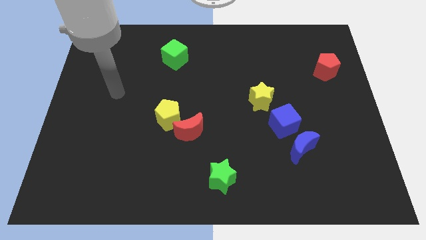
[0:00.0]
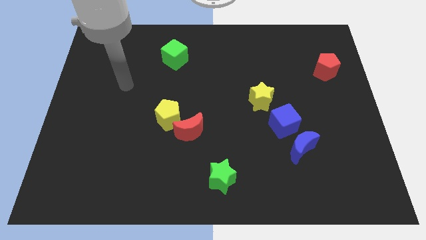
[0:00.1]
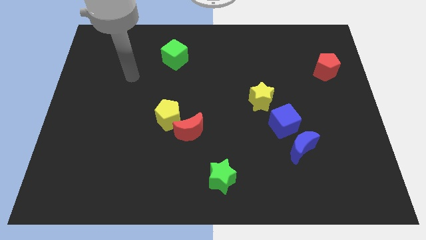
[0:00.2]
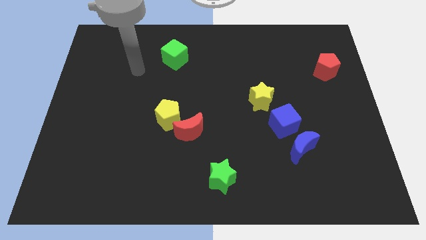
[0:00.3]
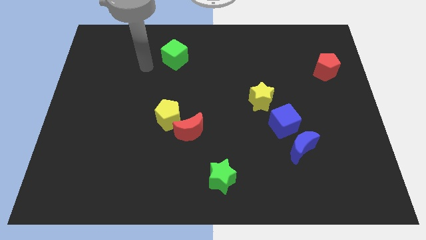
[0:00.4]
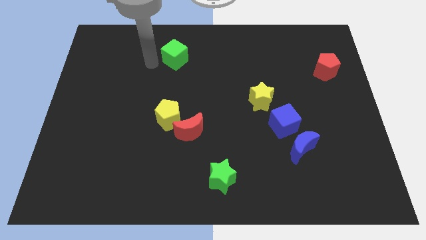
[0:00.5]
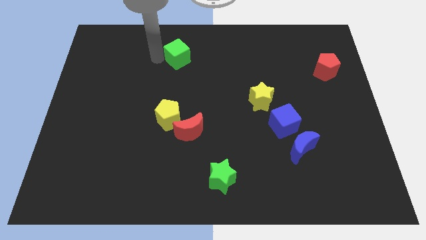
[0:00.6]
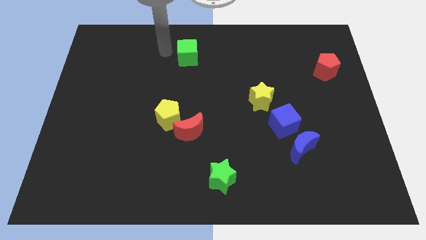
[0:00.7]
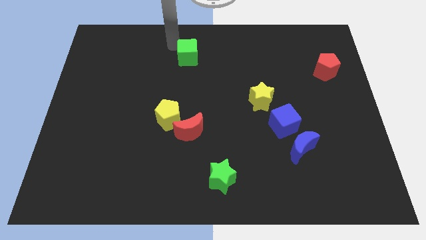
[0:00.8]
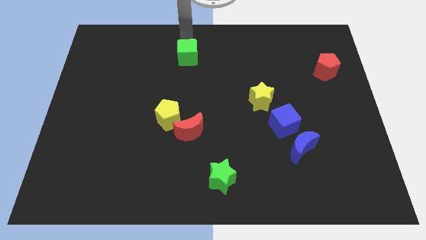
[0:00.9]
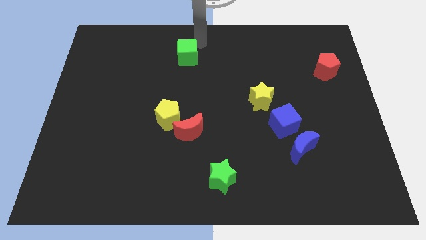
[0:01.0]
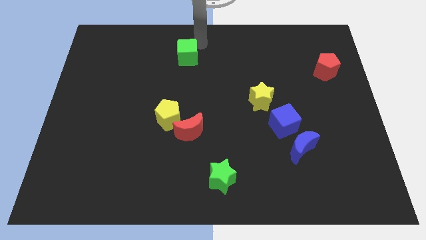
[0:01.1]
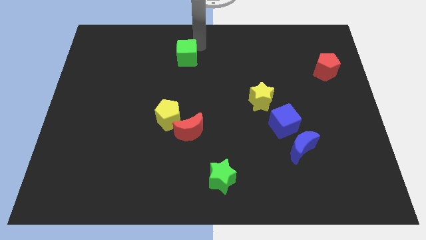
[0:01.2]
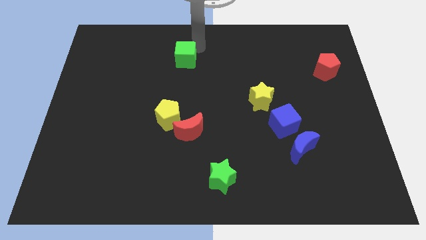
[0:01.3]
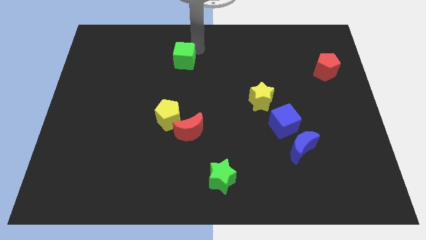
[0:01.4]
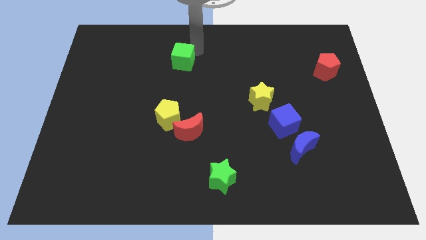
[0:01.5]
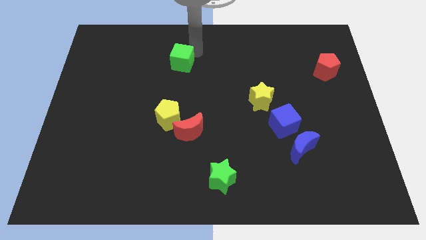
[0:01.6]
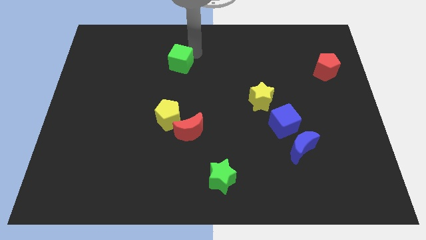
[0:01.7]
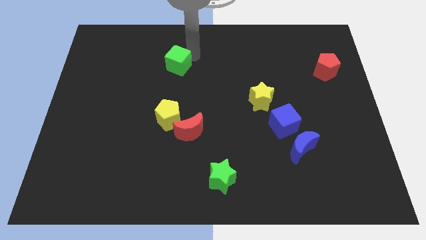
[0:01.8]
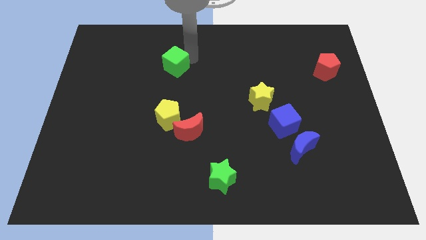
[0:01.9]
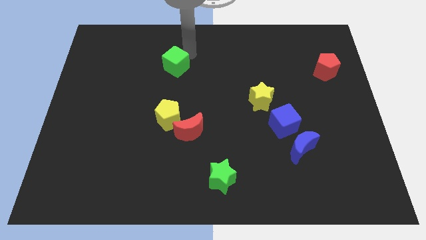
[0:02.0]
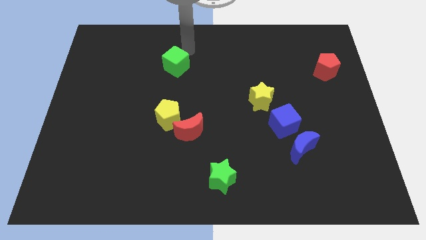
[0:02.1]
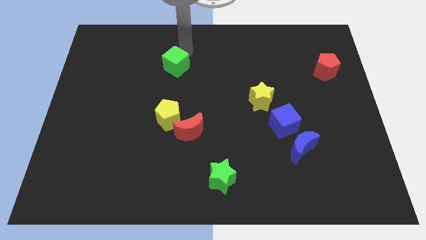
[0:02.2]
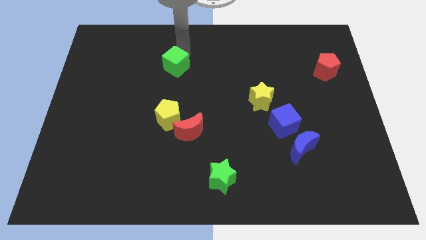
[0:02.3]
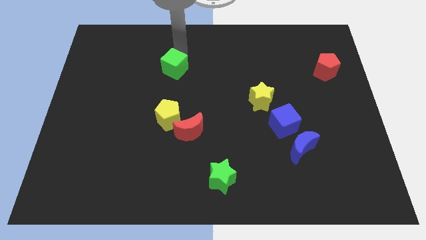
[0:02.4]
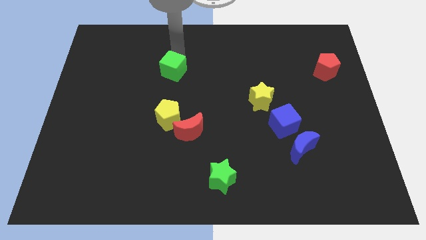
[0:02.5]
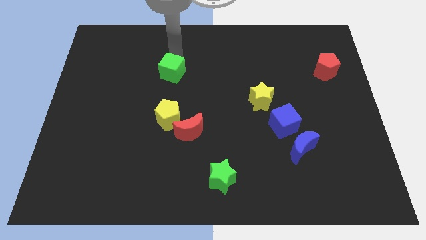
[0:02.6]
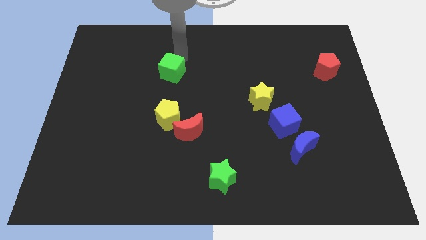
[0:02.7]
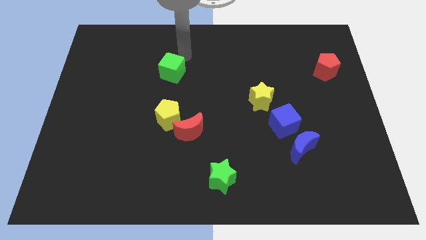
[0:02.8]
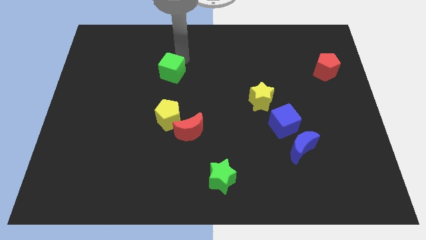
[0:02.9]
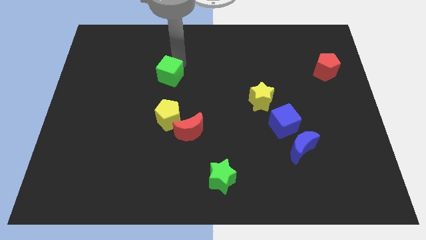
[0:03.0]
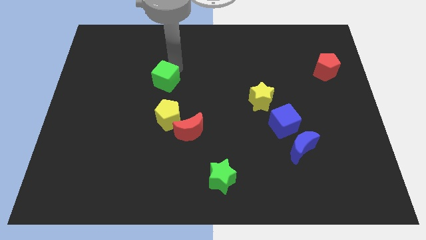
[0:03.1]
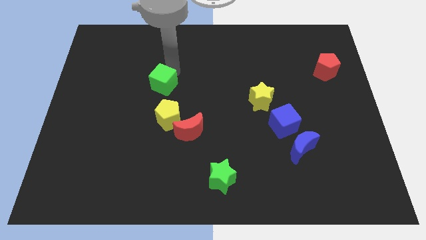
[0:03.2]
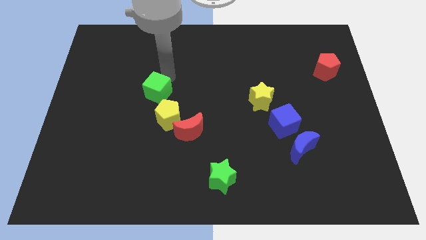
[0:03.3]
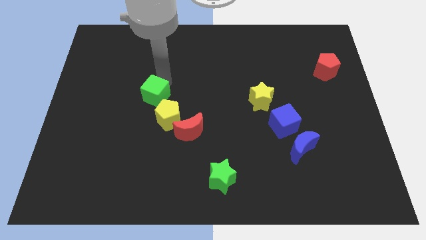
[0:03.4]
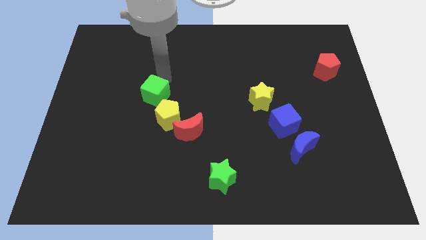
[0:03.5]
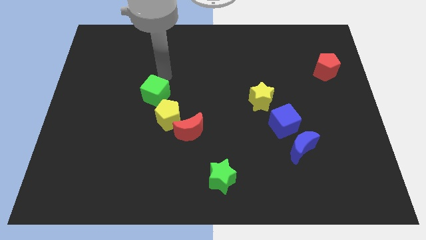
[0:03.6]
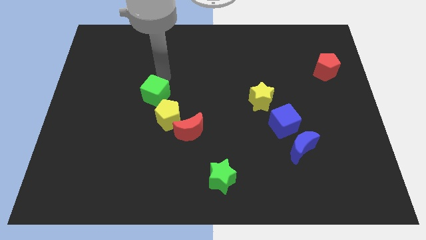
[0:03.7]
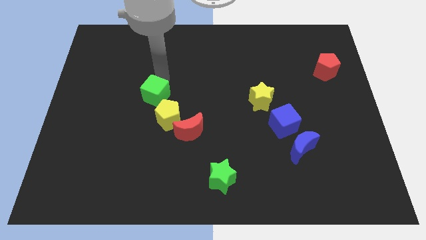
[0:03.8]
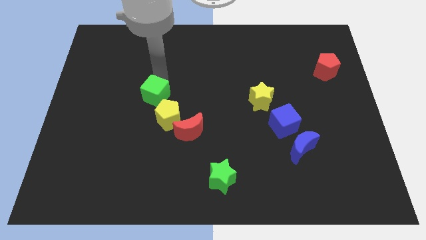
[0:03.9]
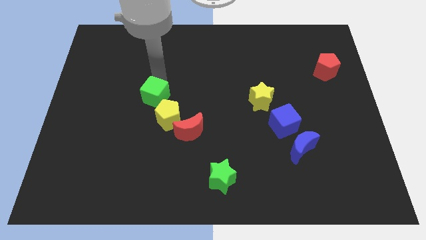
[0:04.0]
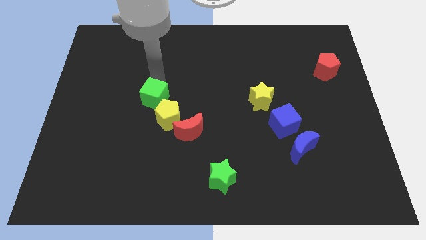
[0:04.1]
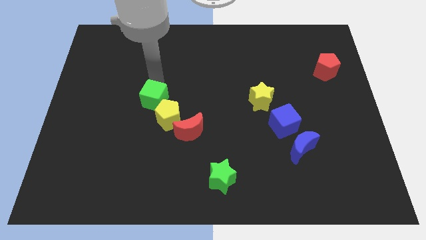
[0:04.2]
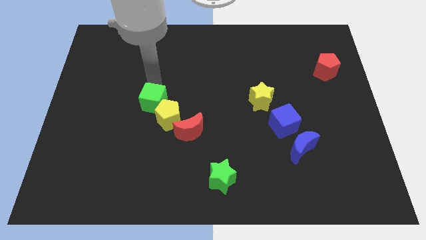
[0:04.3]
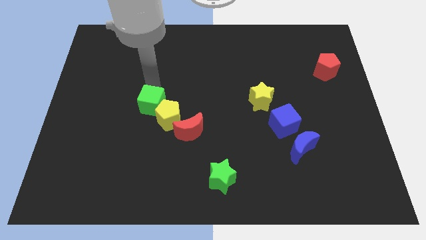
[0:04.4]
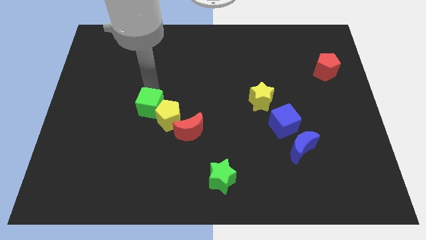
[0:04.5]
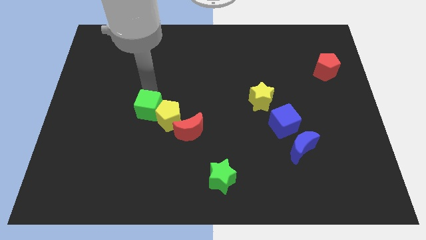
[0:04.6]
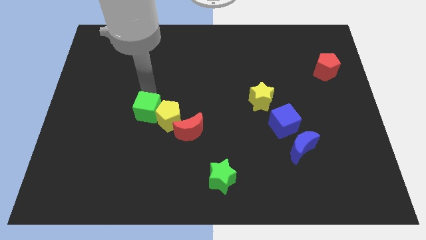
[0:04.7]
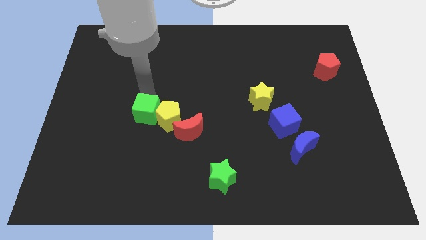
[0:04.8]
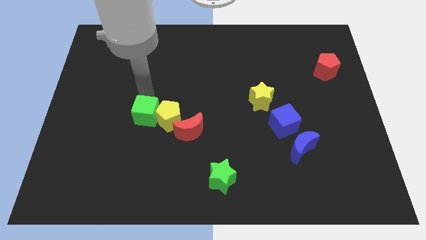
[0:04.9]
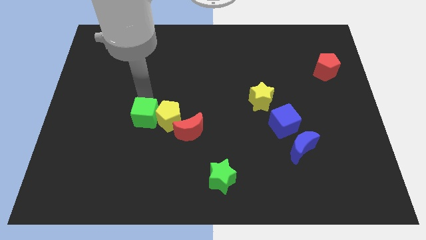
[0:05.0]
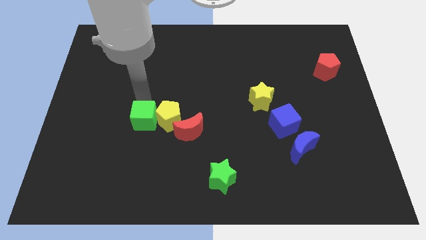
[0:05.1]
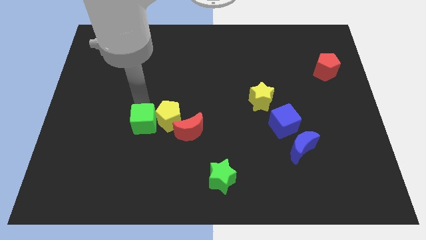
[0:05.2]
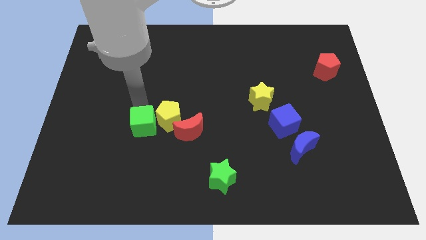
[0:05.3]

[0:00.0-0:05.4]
slide the green cube downwards

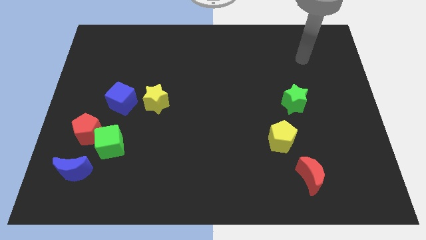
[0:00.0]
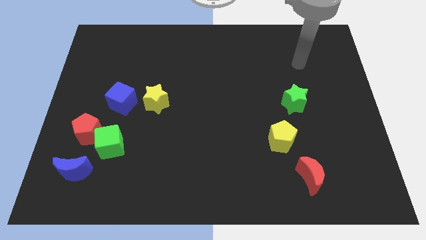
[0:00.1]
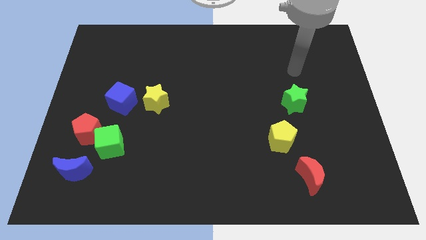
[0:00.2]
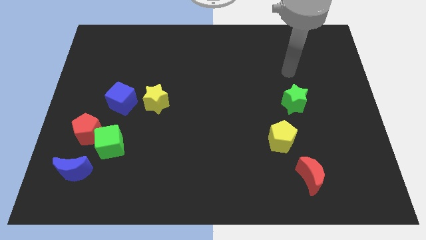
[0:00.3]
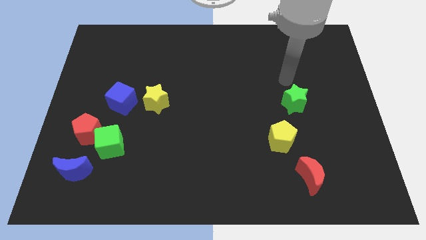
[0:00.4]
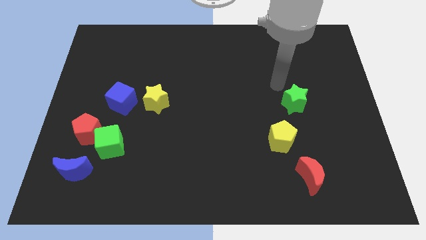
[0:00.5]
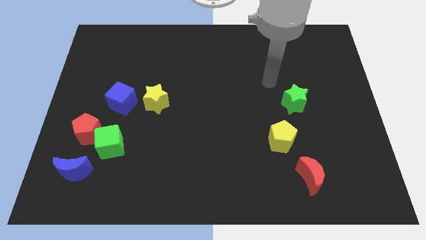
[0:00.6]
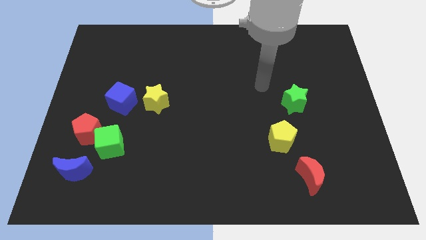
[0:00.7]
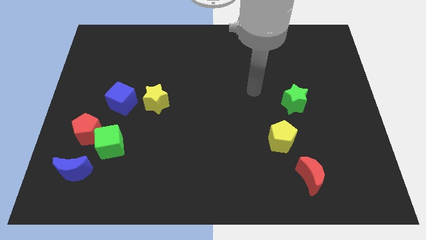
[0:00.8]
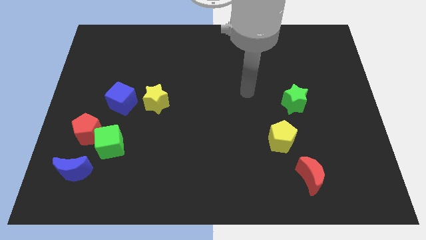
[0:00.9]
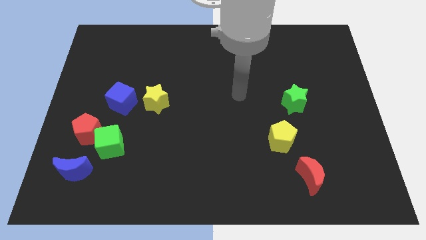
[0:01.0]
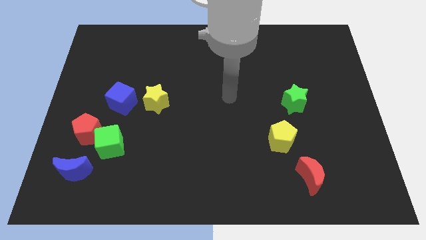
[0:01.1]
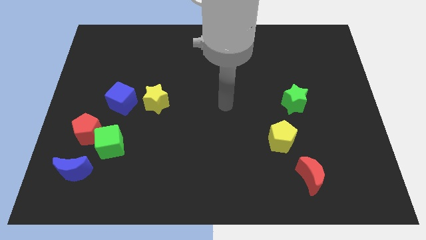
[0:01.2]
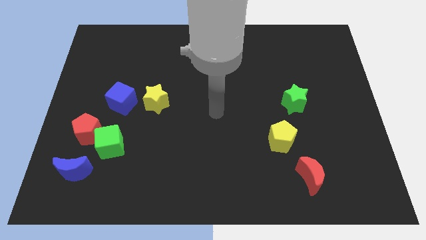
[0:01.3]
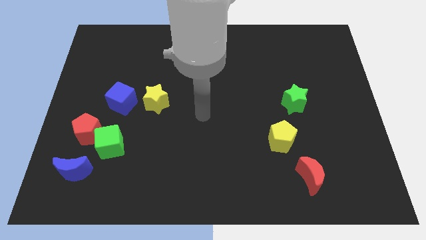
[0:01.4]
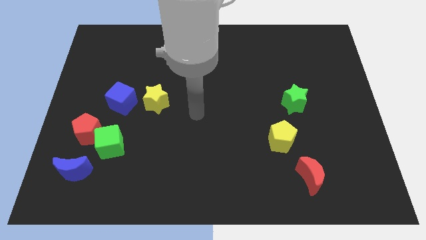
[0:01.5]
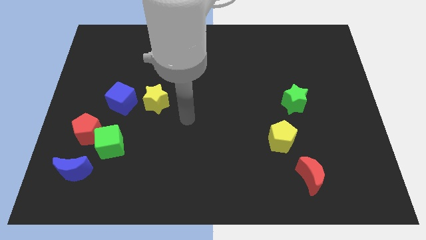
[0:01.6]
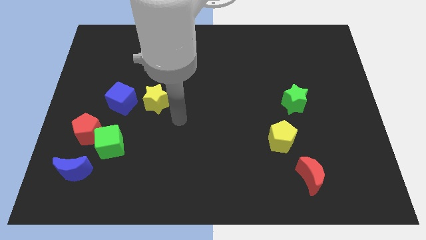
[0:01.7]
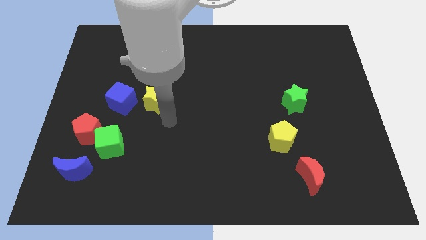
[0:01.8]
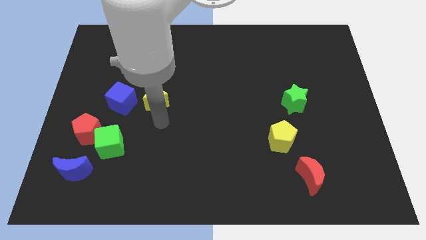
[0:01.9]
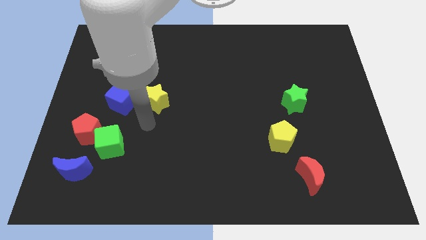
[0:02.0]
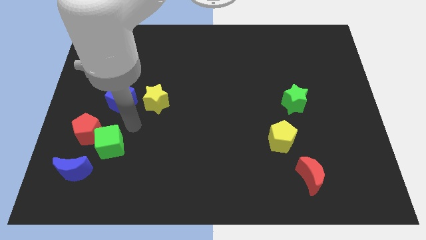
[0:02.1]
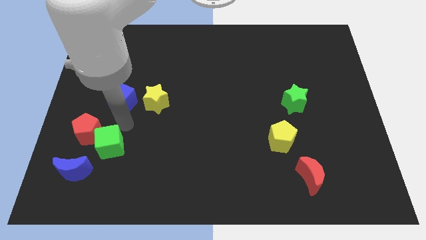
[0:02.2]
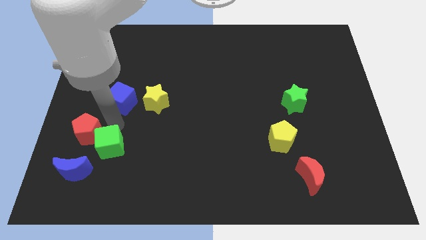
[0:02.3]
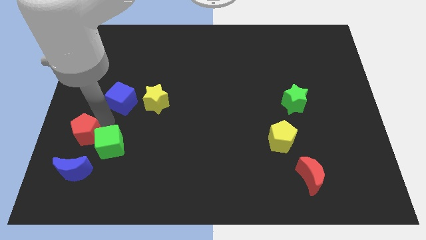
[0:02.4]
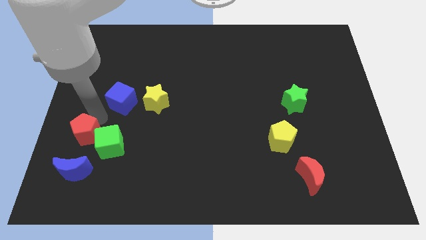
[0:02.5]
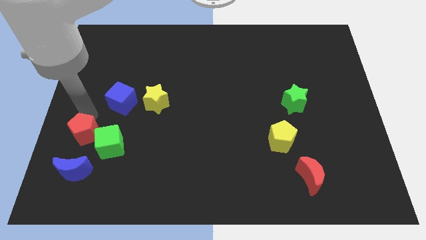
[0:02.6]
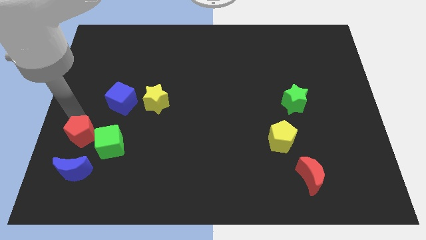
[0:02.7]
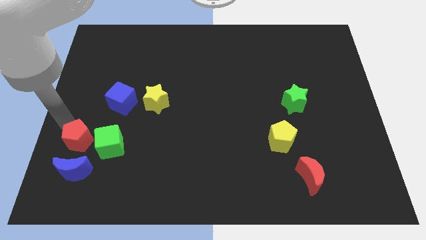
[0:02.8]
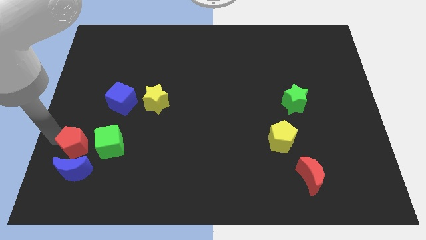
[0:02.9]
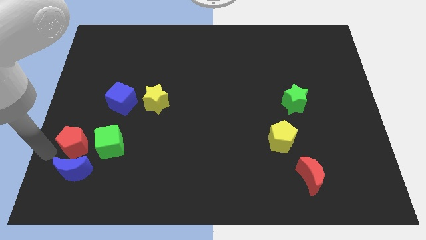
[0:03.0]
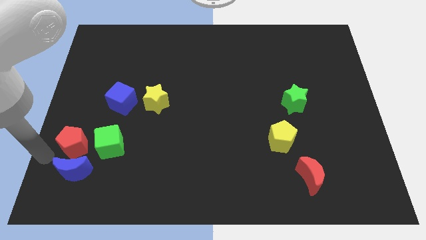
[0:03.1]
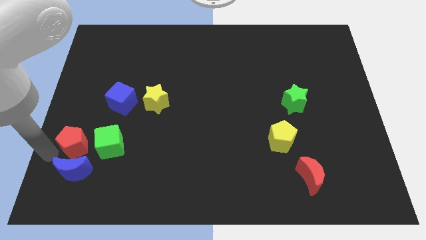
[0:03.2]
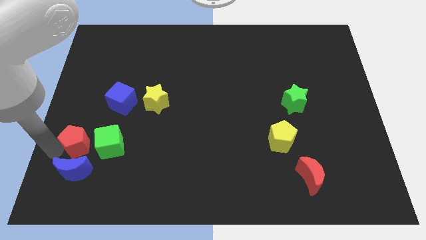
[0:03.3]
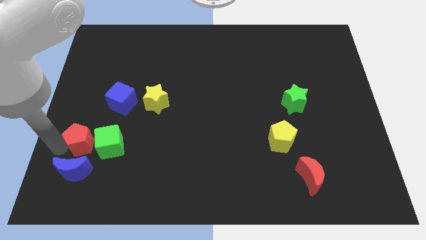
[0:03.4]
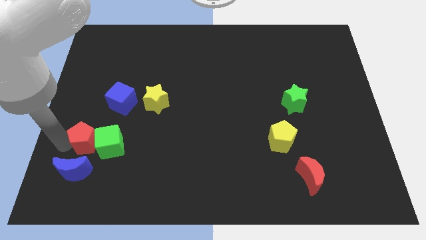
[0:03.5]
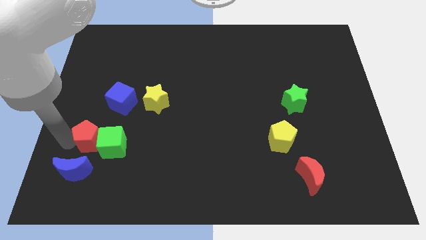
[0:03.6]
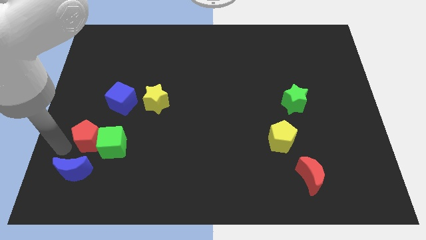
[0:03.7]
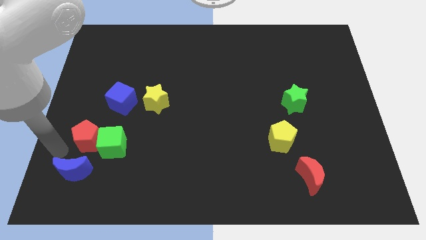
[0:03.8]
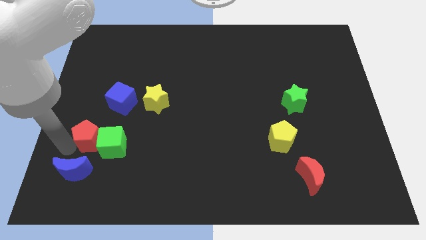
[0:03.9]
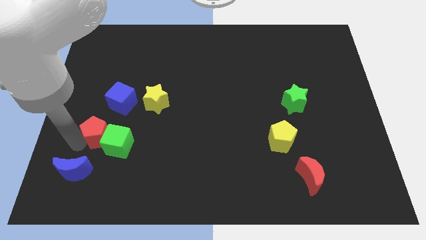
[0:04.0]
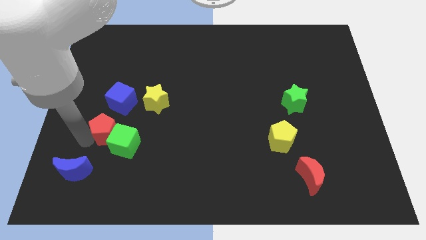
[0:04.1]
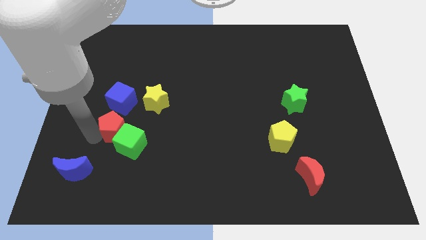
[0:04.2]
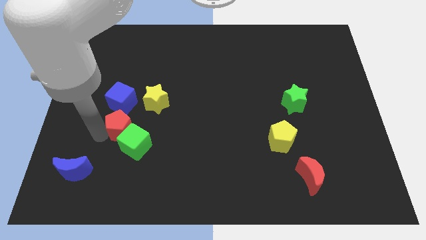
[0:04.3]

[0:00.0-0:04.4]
move the red pentagon a bit right
